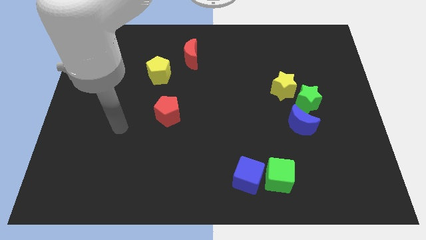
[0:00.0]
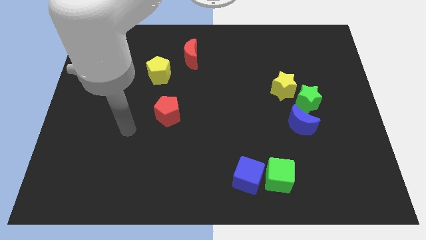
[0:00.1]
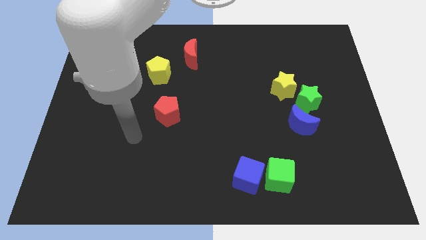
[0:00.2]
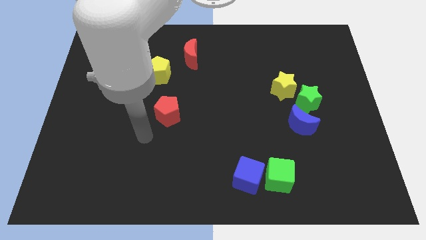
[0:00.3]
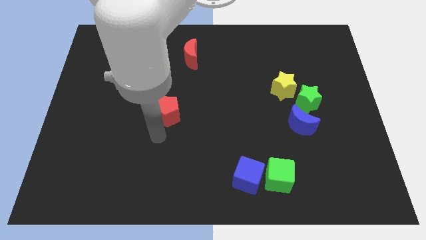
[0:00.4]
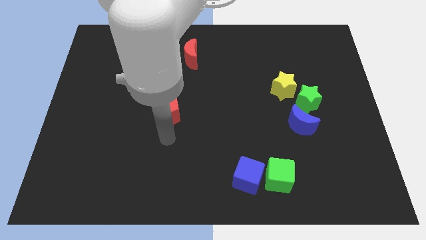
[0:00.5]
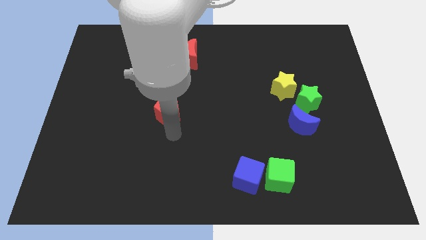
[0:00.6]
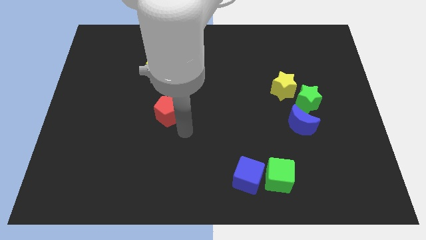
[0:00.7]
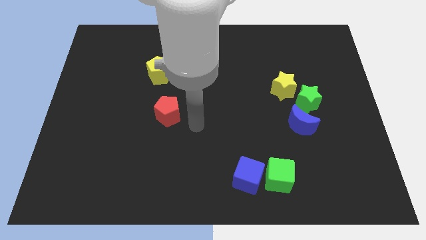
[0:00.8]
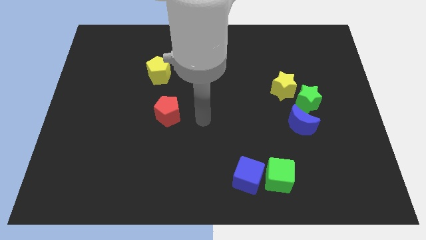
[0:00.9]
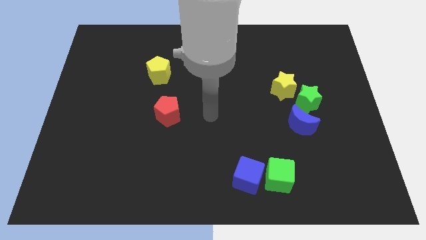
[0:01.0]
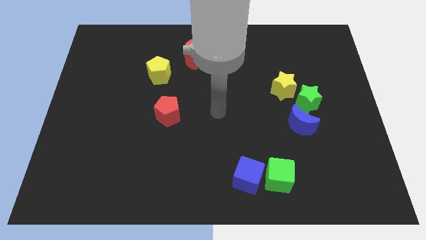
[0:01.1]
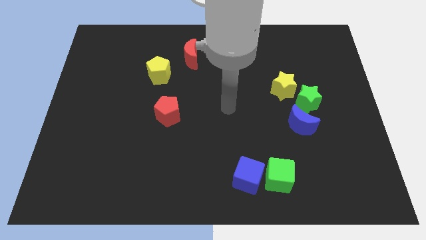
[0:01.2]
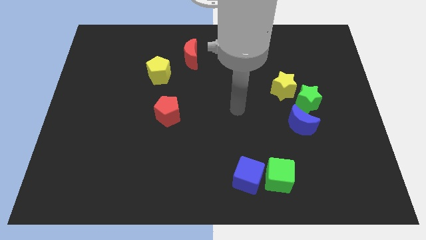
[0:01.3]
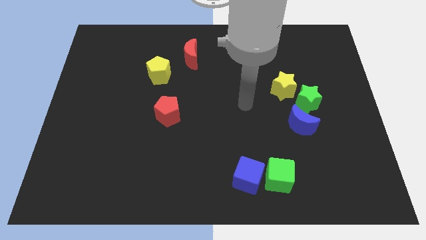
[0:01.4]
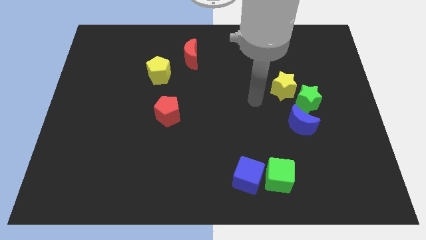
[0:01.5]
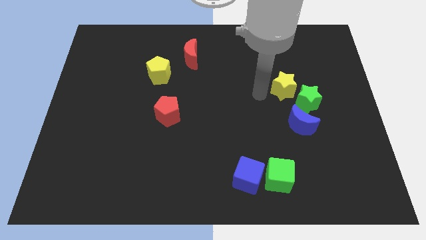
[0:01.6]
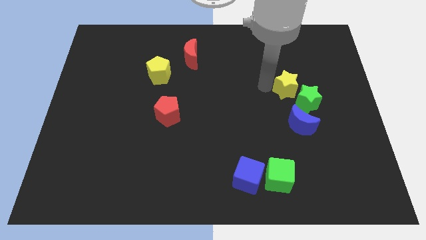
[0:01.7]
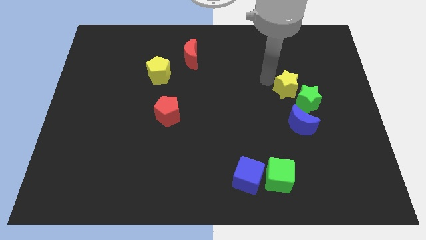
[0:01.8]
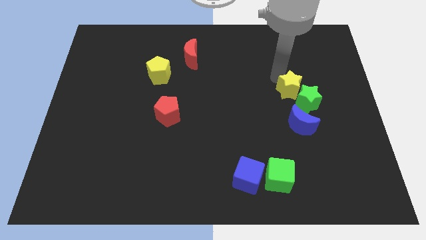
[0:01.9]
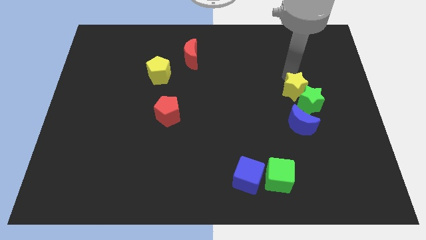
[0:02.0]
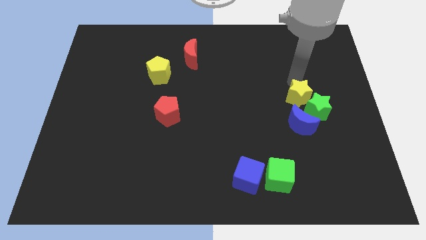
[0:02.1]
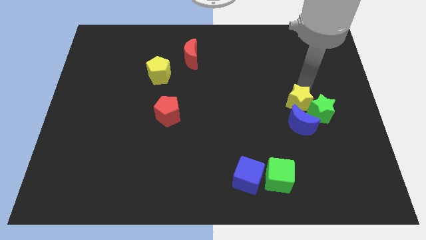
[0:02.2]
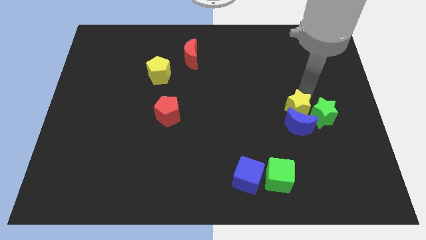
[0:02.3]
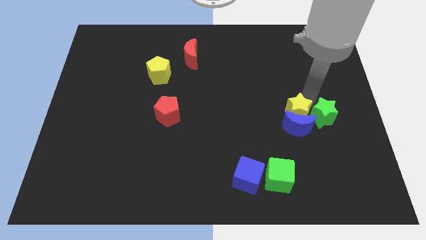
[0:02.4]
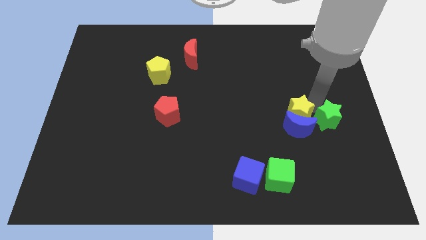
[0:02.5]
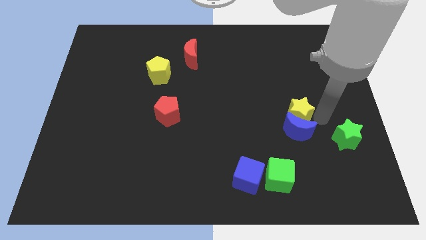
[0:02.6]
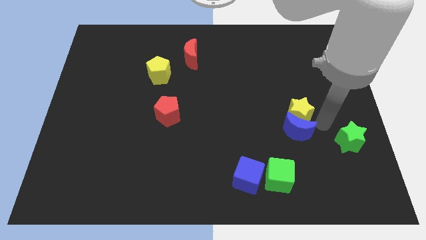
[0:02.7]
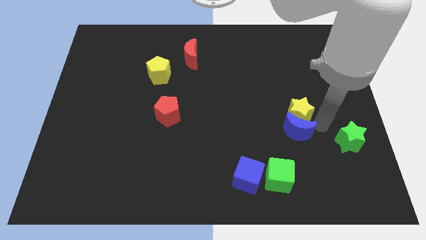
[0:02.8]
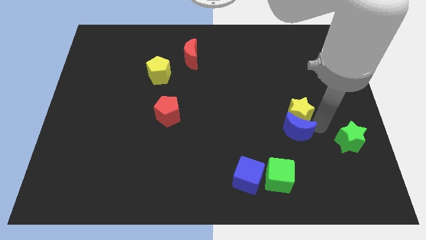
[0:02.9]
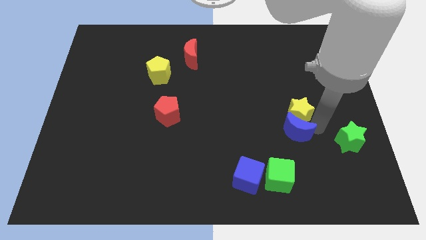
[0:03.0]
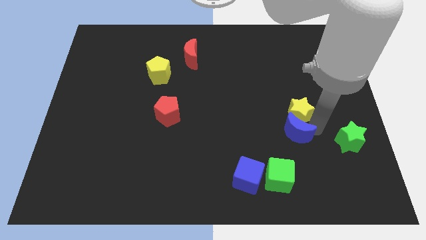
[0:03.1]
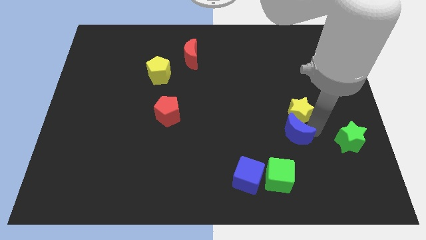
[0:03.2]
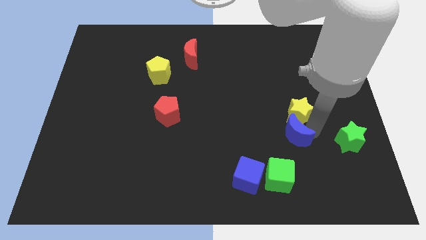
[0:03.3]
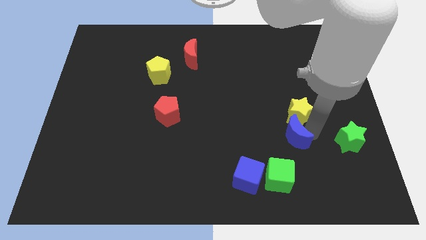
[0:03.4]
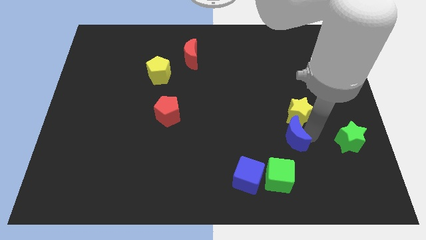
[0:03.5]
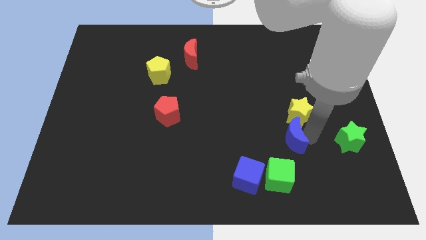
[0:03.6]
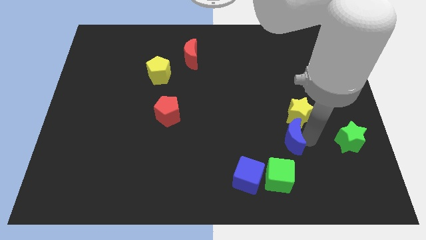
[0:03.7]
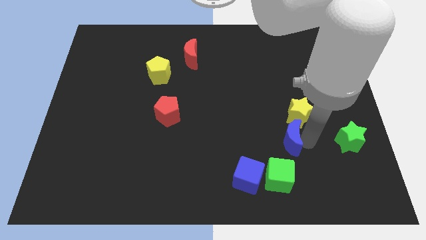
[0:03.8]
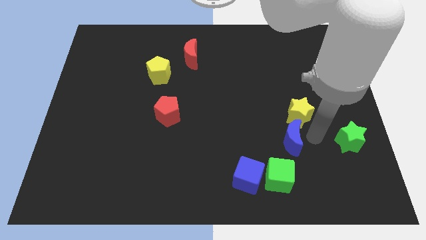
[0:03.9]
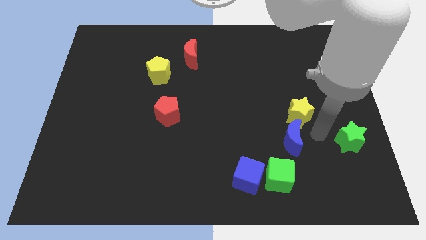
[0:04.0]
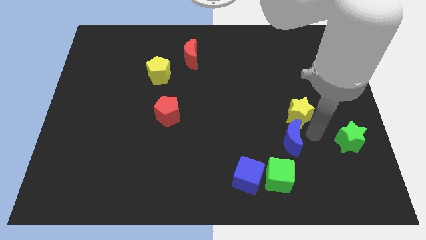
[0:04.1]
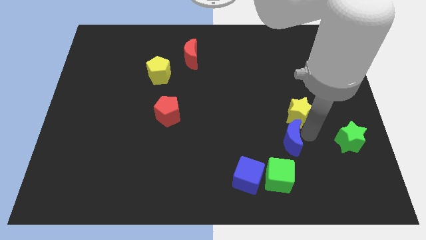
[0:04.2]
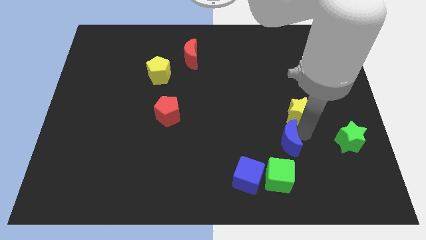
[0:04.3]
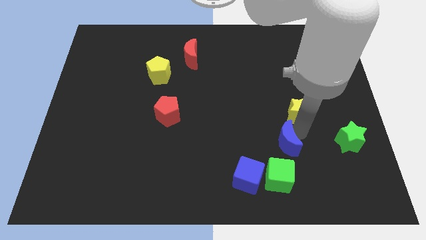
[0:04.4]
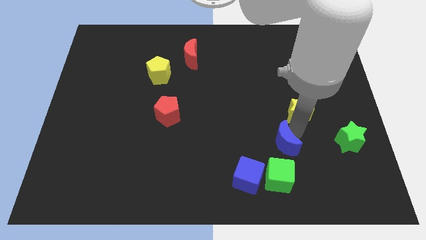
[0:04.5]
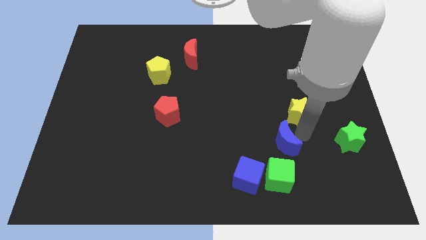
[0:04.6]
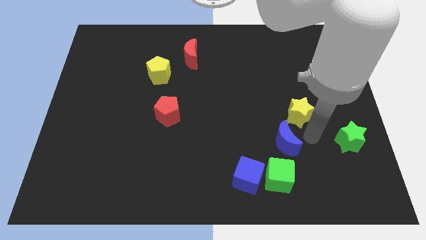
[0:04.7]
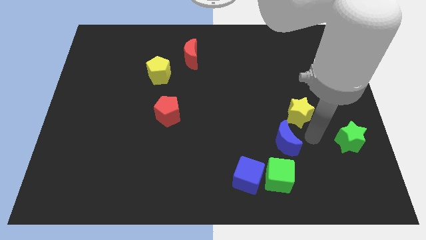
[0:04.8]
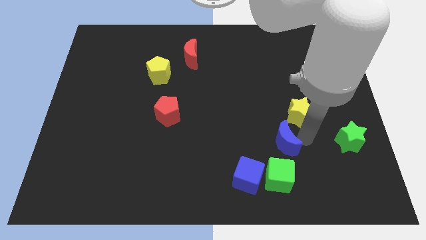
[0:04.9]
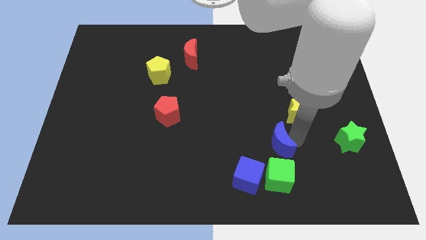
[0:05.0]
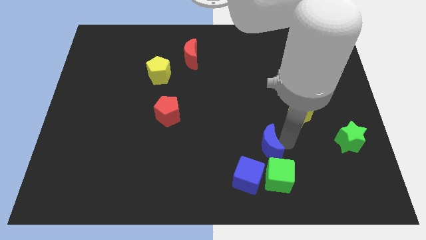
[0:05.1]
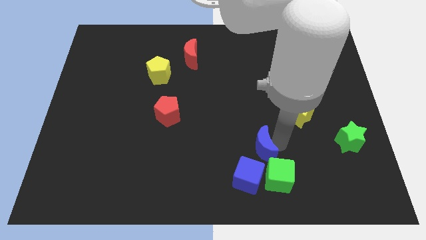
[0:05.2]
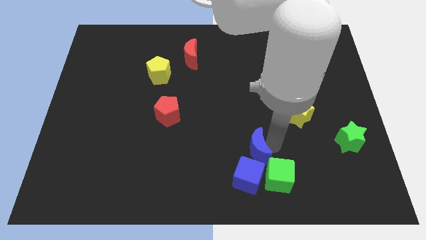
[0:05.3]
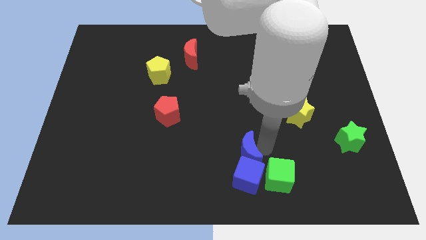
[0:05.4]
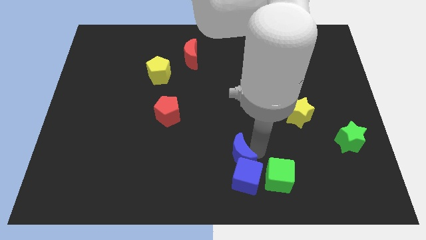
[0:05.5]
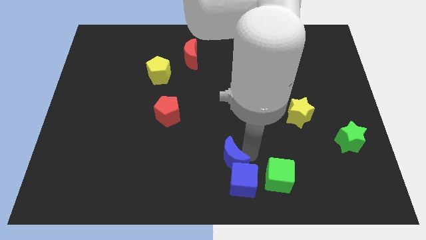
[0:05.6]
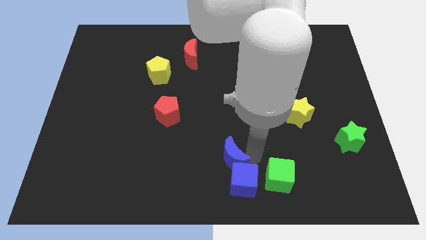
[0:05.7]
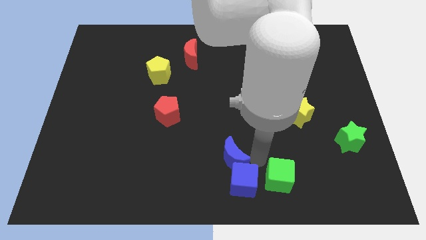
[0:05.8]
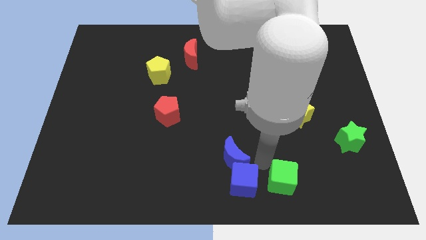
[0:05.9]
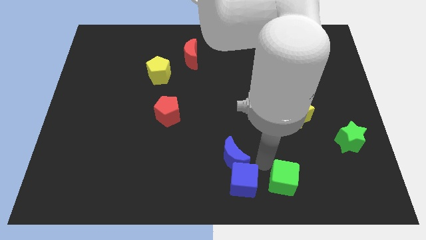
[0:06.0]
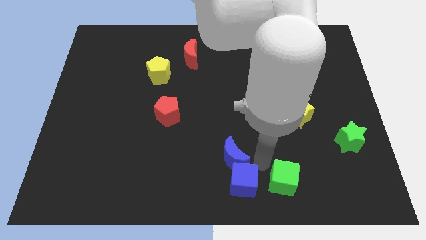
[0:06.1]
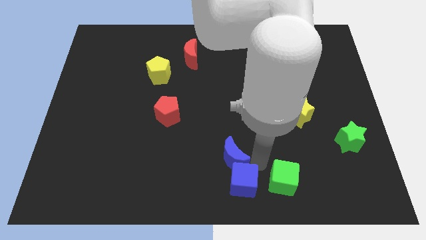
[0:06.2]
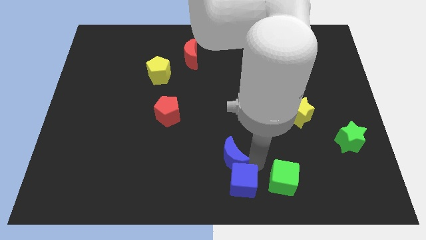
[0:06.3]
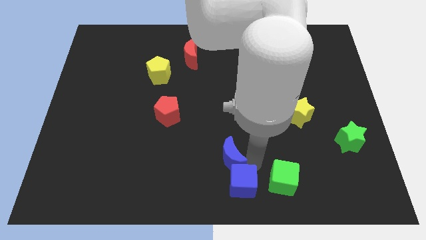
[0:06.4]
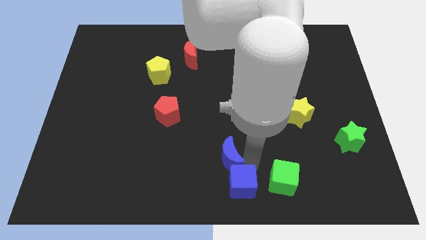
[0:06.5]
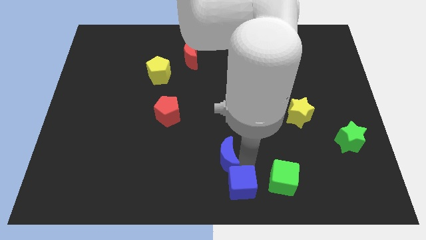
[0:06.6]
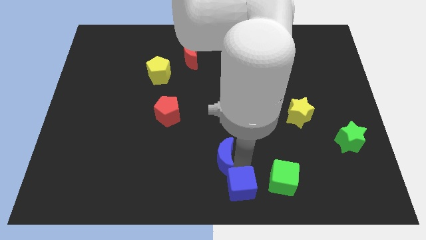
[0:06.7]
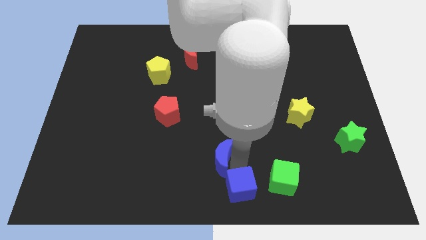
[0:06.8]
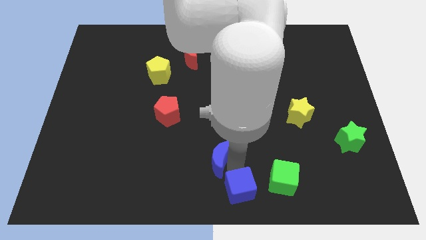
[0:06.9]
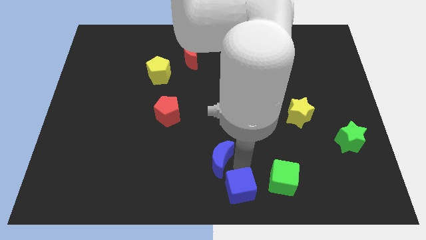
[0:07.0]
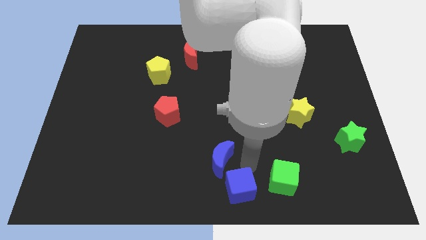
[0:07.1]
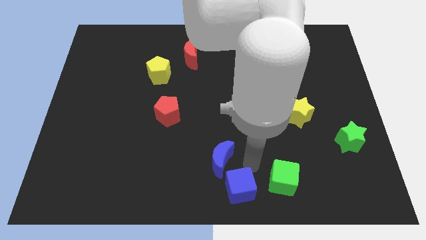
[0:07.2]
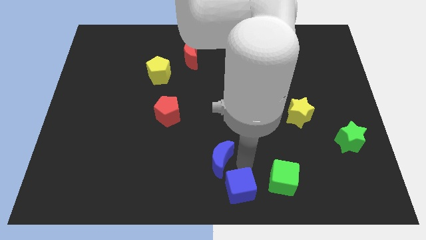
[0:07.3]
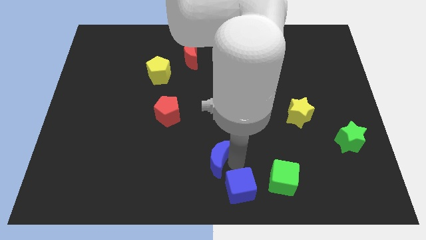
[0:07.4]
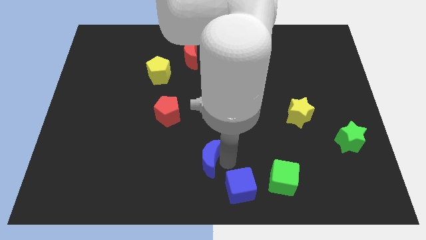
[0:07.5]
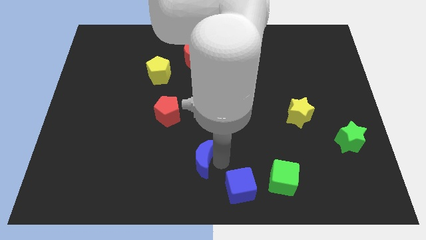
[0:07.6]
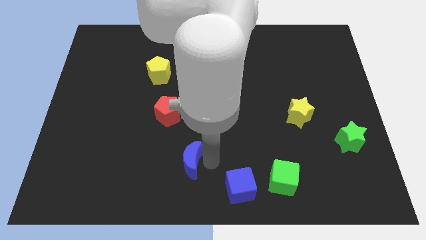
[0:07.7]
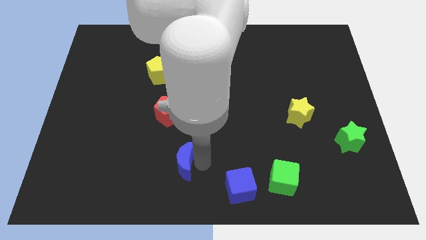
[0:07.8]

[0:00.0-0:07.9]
slide the blue moon below the red pentagon
